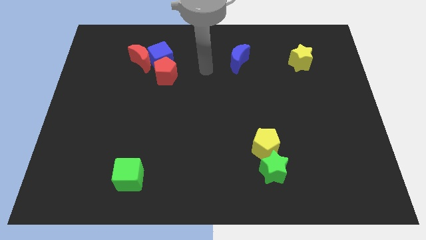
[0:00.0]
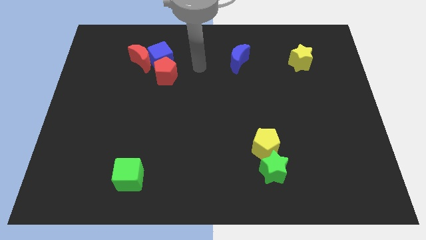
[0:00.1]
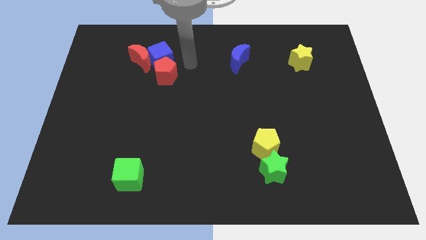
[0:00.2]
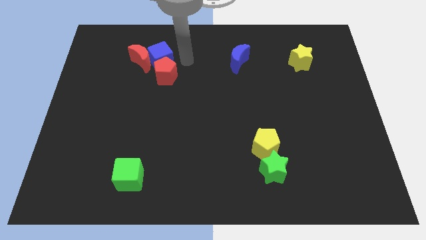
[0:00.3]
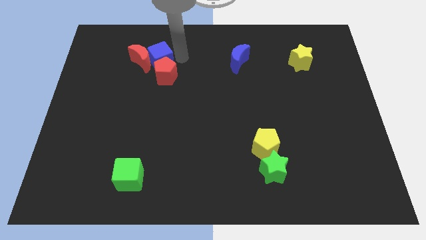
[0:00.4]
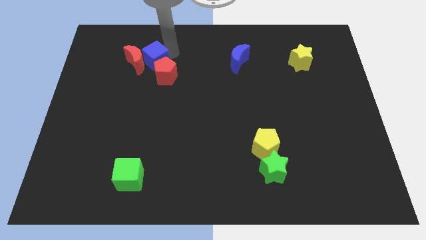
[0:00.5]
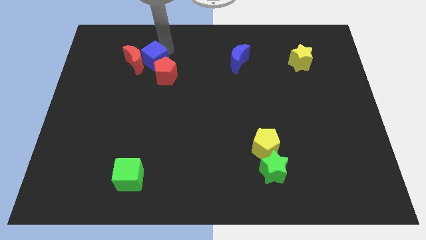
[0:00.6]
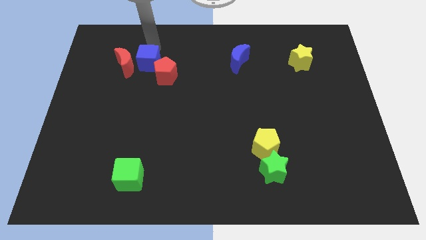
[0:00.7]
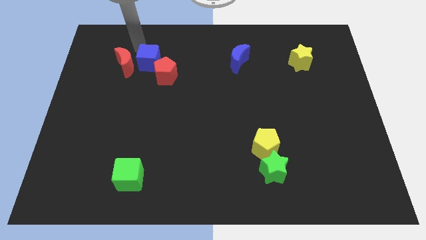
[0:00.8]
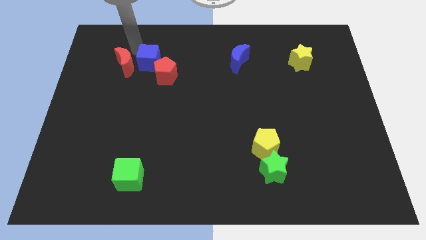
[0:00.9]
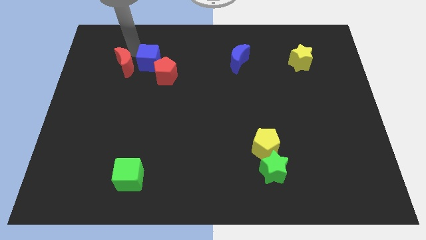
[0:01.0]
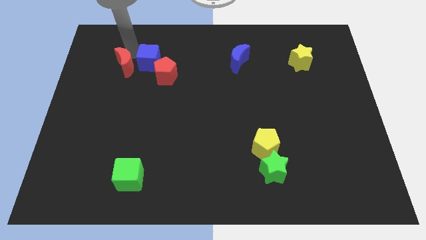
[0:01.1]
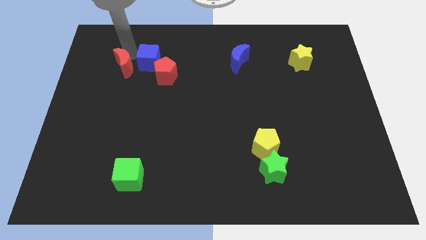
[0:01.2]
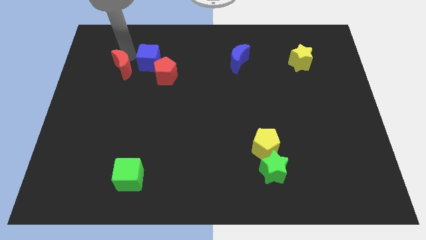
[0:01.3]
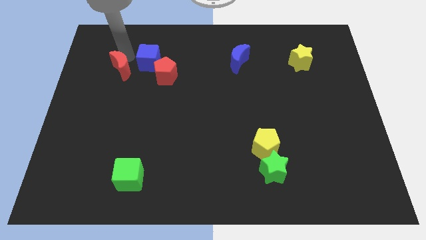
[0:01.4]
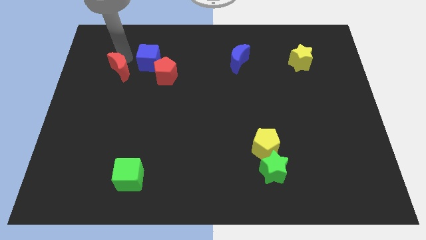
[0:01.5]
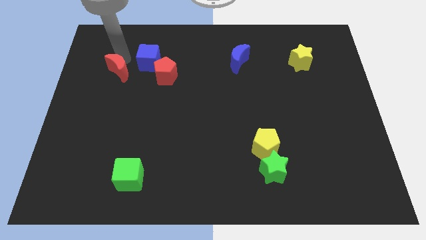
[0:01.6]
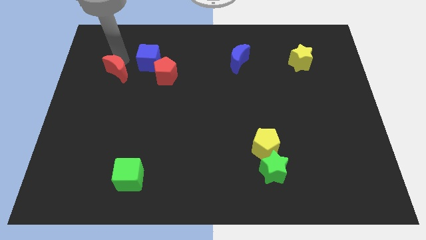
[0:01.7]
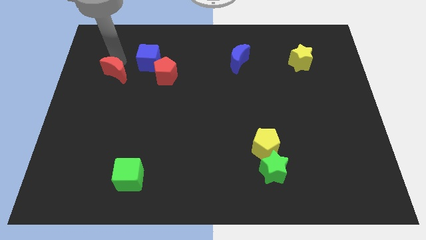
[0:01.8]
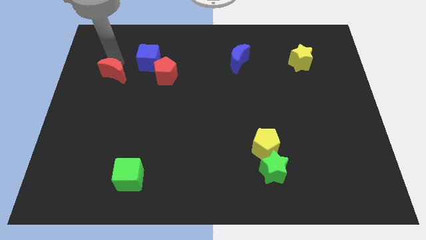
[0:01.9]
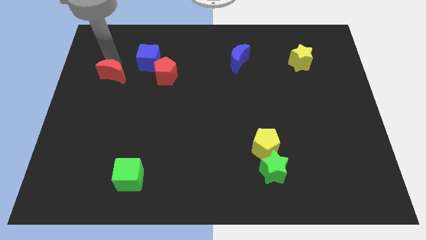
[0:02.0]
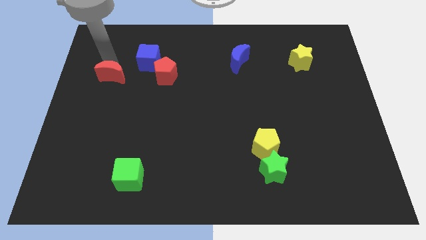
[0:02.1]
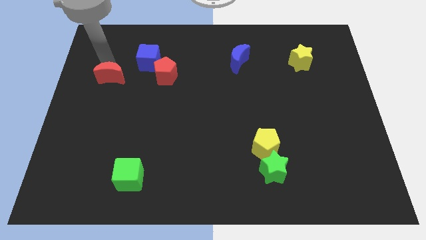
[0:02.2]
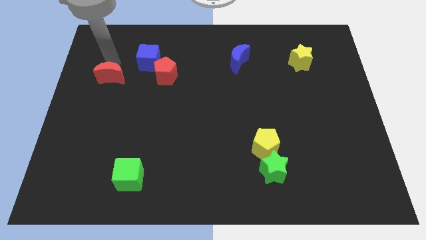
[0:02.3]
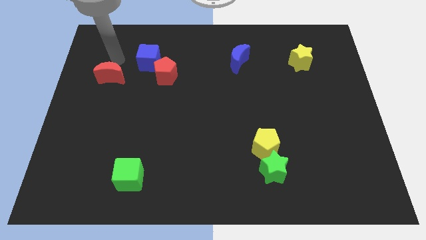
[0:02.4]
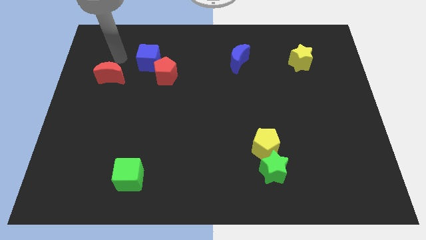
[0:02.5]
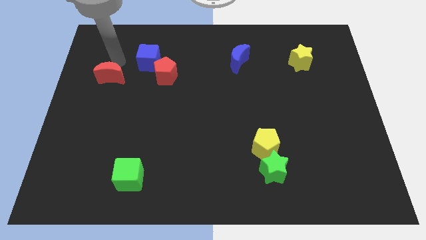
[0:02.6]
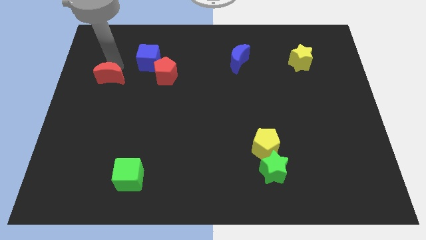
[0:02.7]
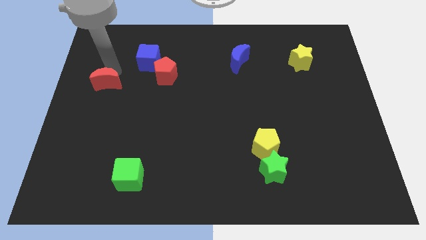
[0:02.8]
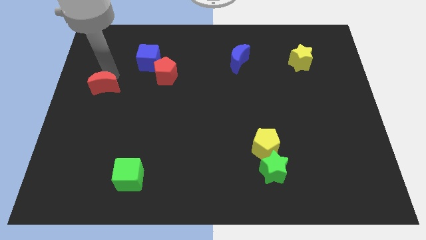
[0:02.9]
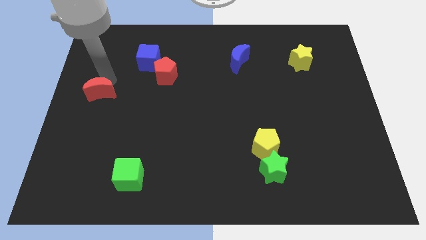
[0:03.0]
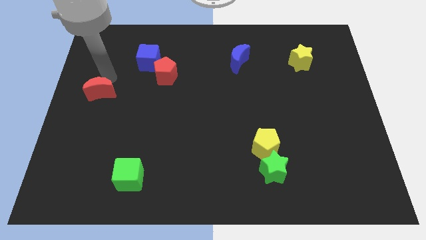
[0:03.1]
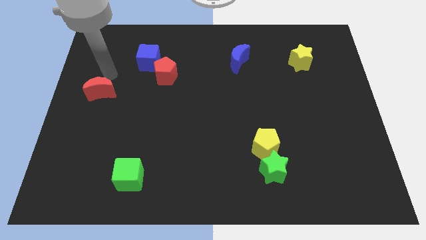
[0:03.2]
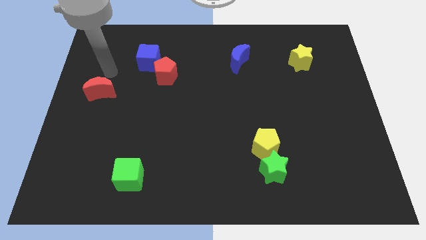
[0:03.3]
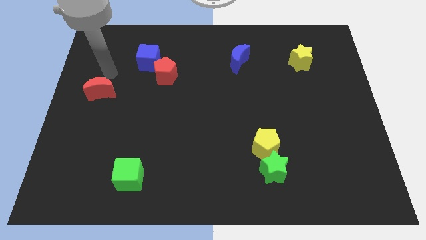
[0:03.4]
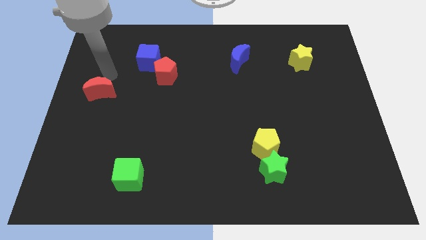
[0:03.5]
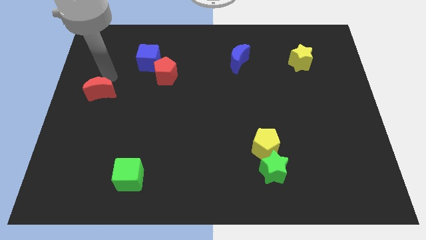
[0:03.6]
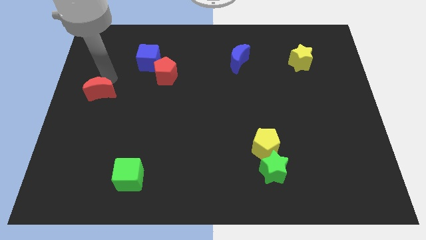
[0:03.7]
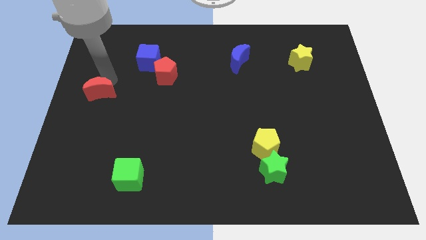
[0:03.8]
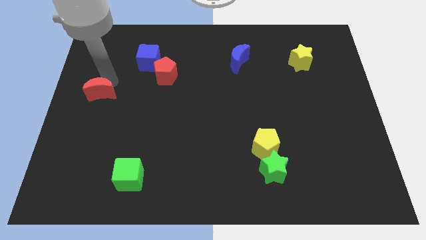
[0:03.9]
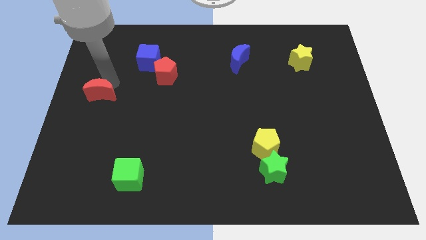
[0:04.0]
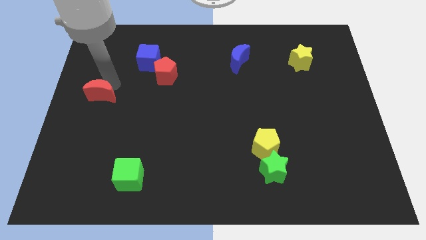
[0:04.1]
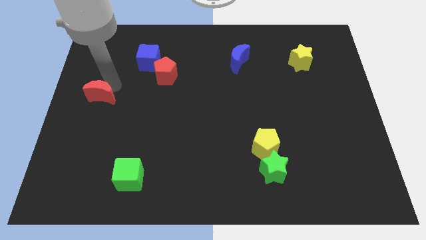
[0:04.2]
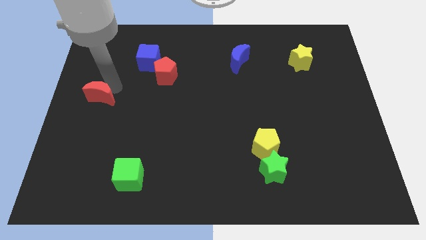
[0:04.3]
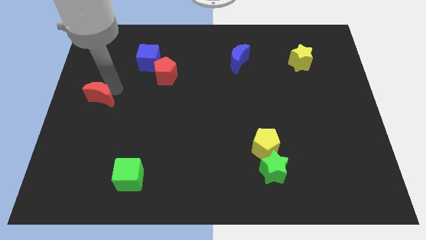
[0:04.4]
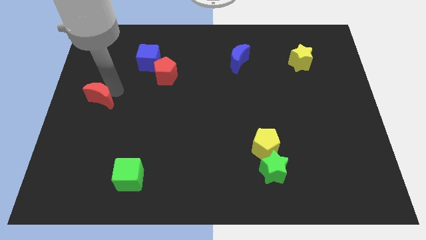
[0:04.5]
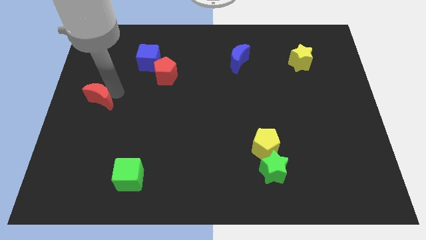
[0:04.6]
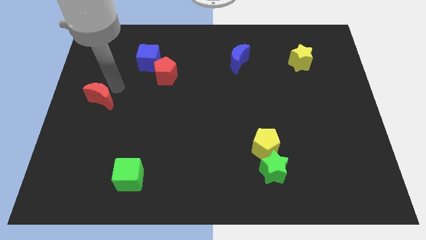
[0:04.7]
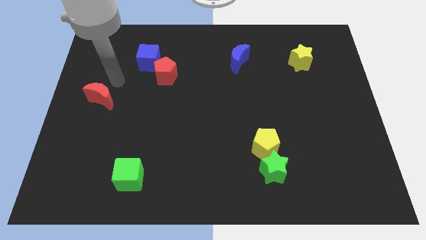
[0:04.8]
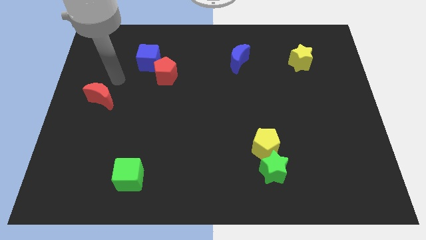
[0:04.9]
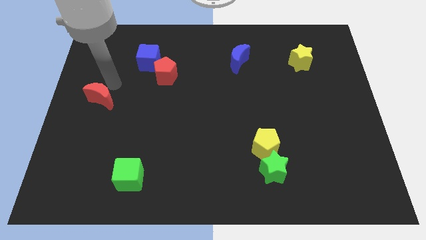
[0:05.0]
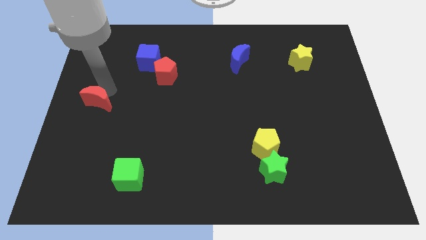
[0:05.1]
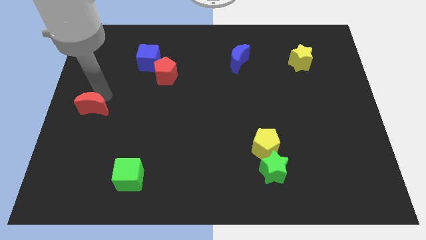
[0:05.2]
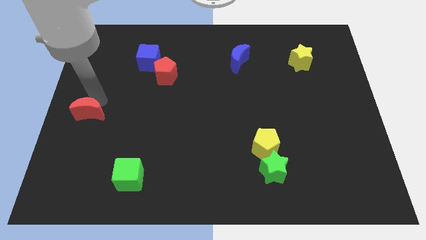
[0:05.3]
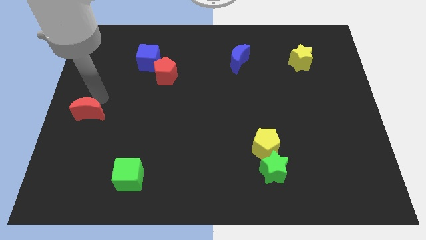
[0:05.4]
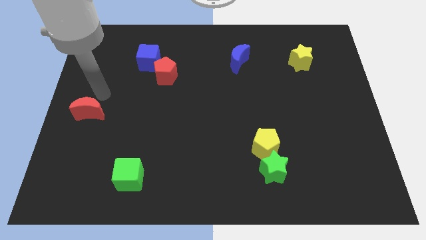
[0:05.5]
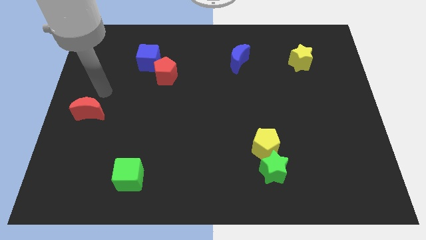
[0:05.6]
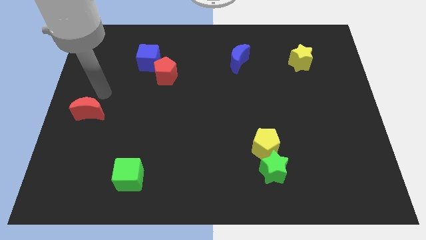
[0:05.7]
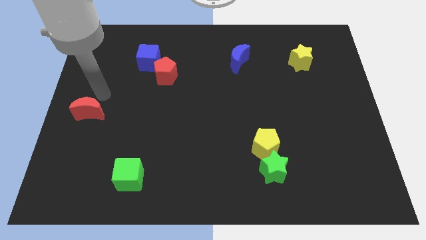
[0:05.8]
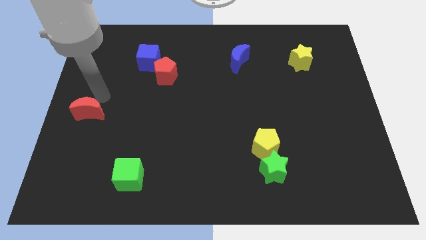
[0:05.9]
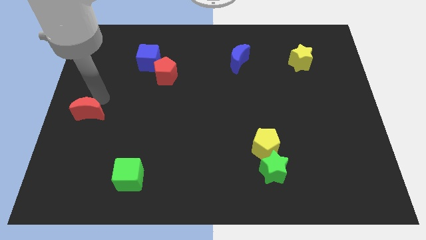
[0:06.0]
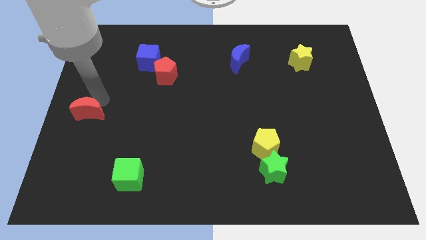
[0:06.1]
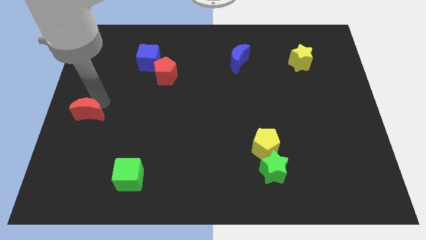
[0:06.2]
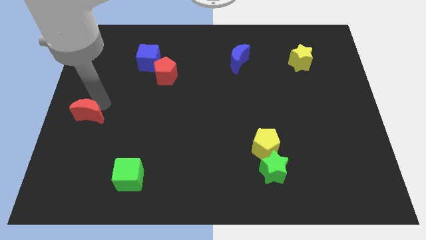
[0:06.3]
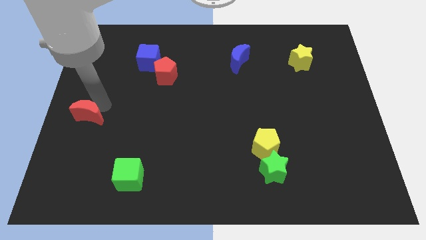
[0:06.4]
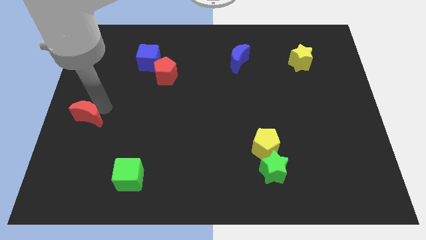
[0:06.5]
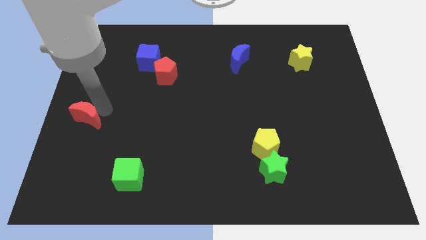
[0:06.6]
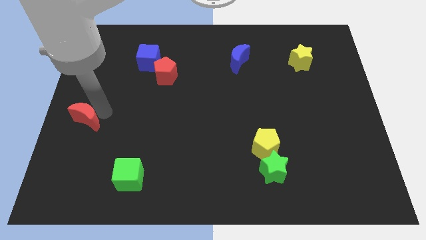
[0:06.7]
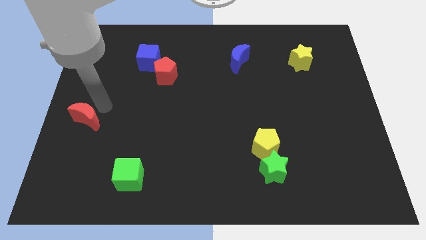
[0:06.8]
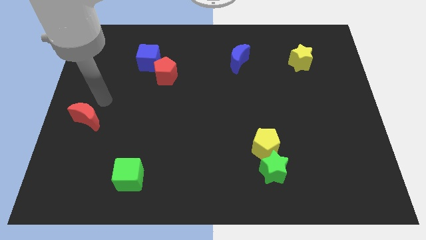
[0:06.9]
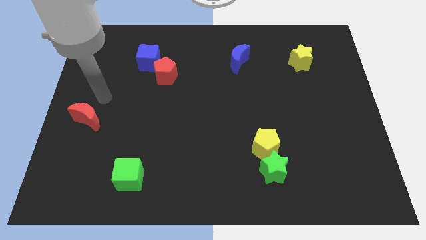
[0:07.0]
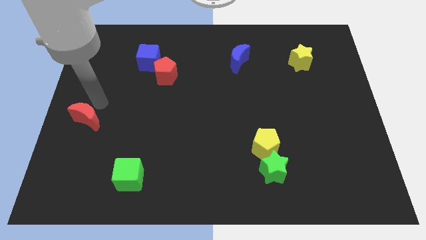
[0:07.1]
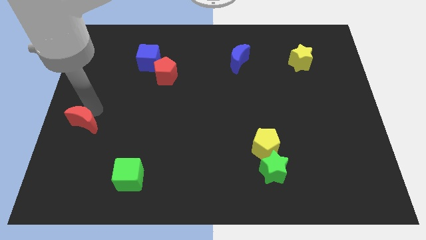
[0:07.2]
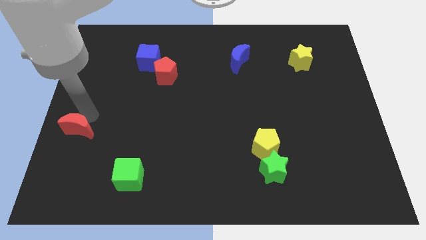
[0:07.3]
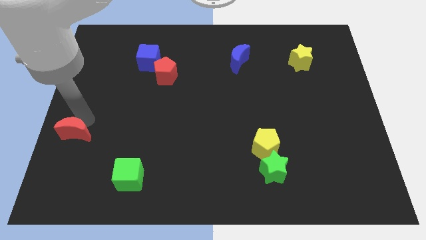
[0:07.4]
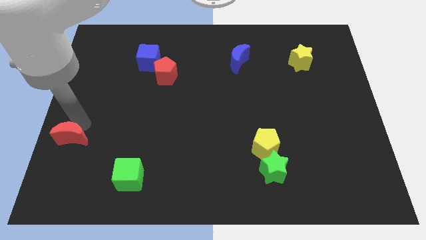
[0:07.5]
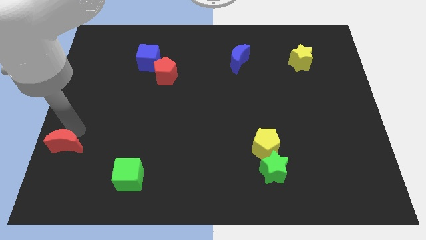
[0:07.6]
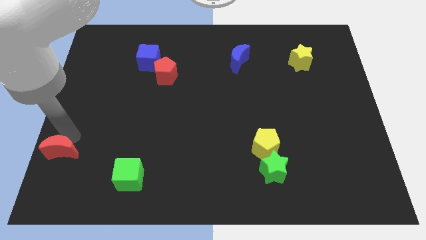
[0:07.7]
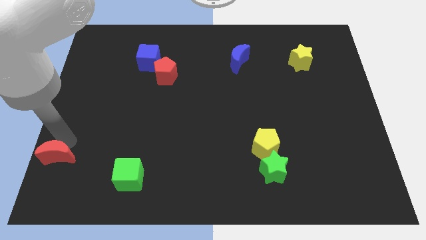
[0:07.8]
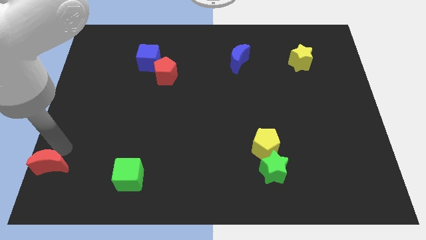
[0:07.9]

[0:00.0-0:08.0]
put the red moon to the bottom left of the board
